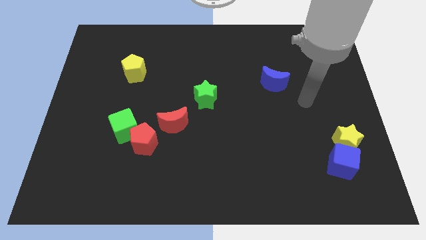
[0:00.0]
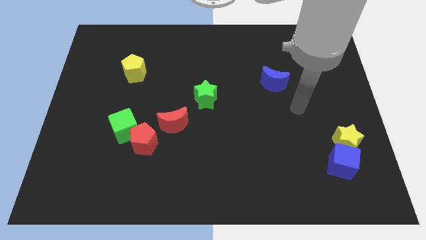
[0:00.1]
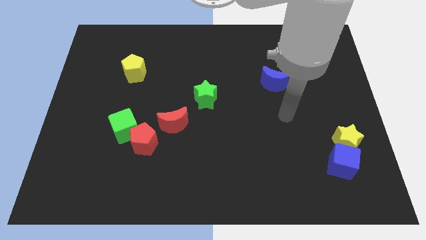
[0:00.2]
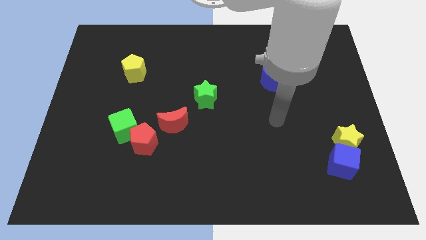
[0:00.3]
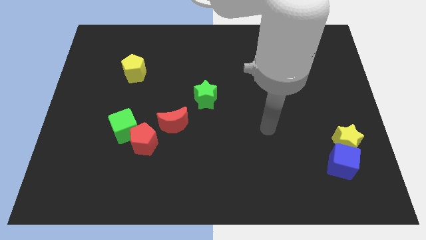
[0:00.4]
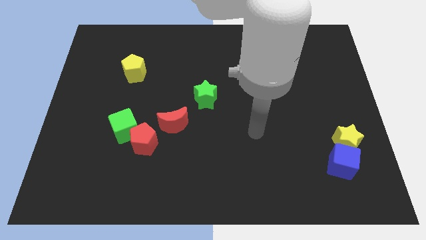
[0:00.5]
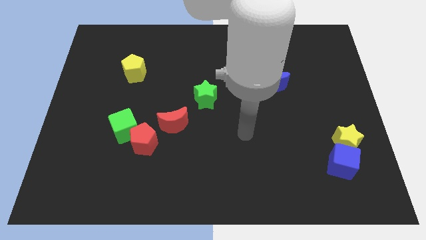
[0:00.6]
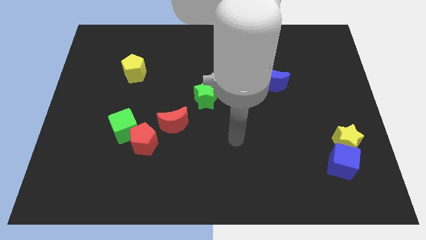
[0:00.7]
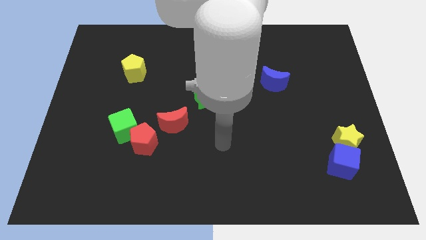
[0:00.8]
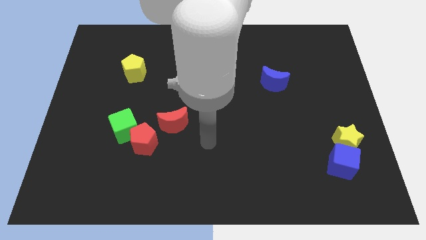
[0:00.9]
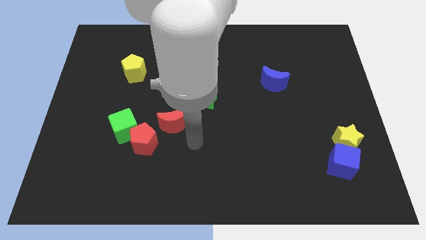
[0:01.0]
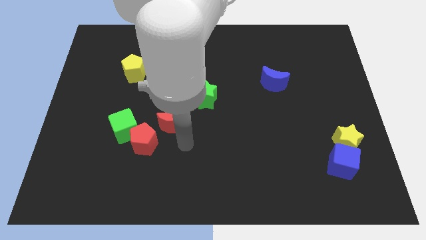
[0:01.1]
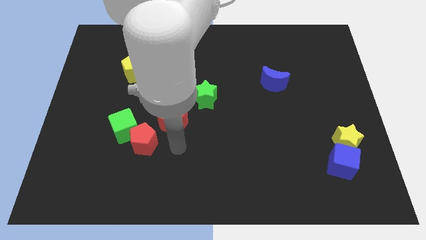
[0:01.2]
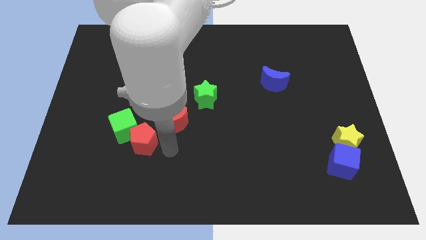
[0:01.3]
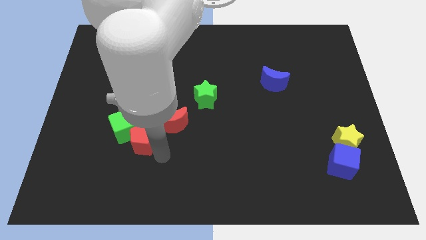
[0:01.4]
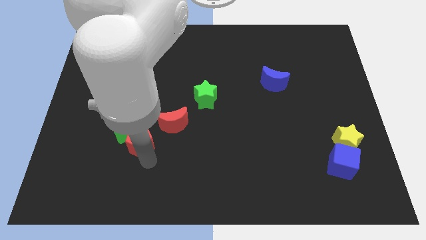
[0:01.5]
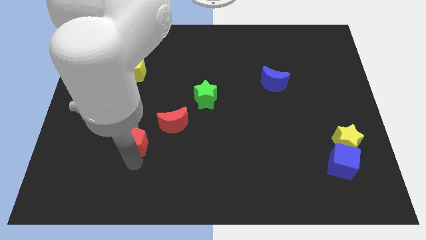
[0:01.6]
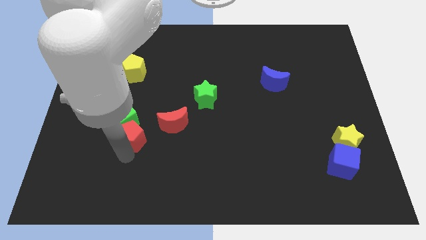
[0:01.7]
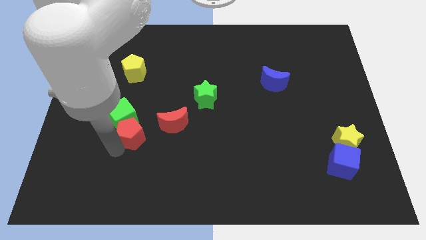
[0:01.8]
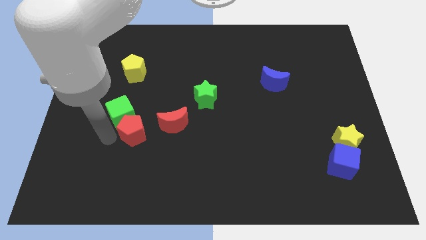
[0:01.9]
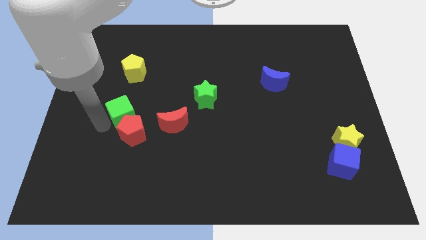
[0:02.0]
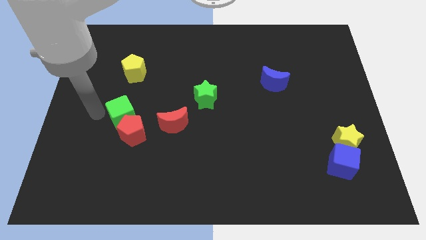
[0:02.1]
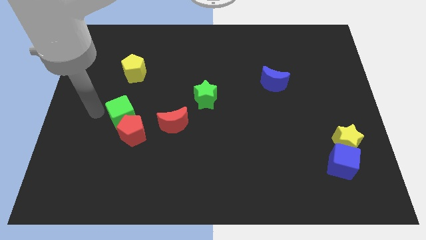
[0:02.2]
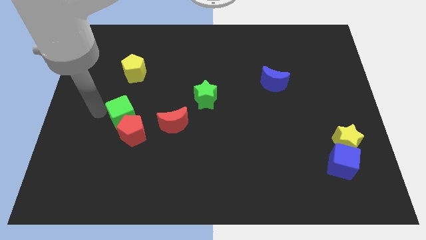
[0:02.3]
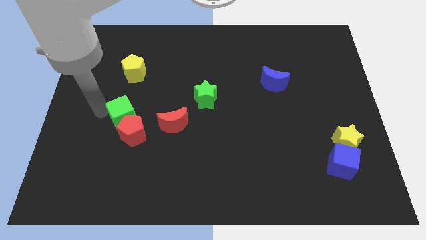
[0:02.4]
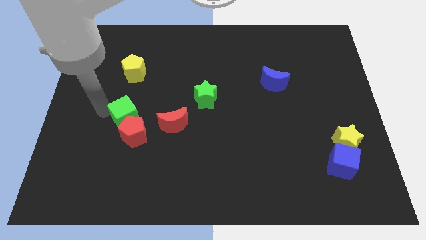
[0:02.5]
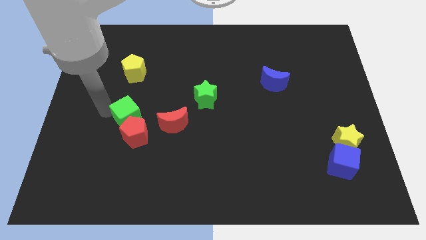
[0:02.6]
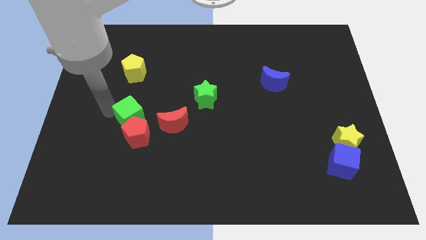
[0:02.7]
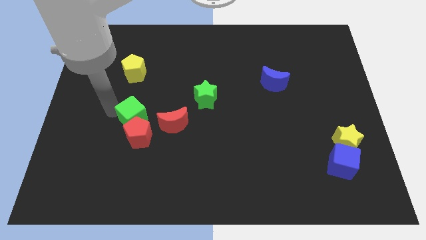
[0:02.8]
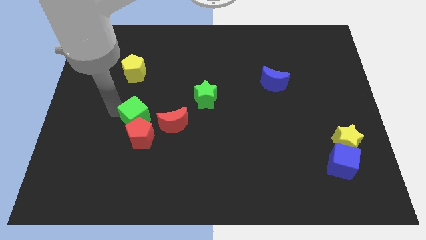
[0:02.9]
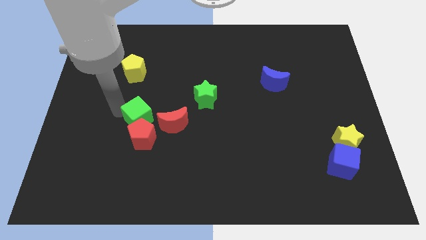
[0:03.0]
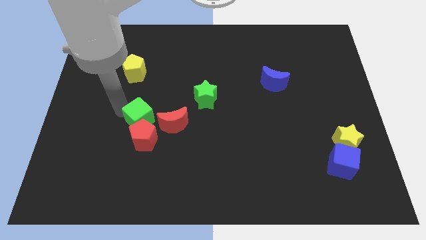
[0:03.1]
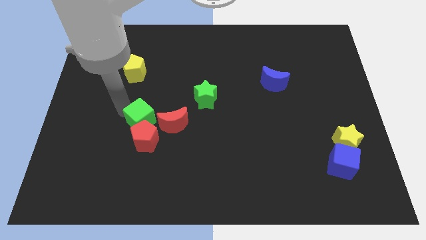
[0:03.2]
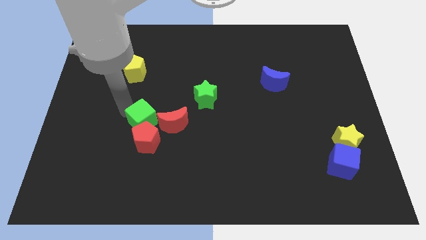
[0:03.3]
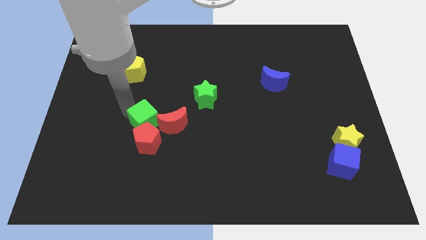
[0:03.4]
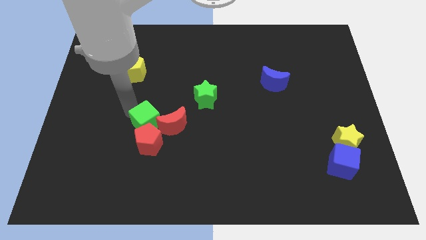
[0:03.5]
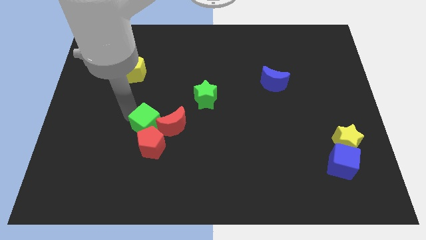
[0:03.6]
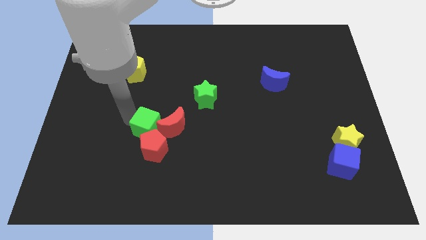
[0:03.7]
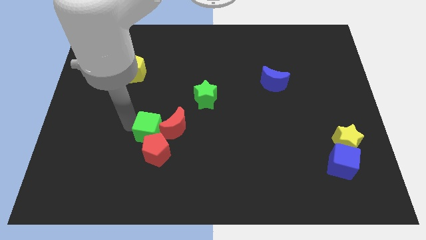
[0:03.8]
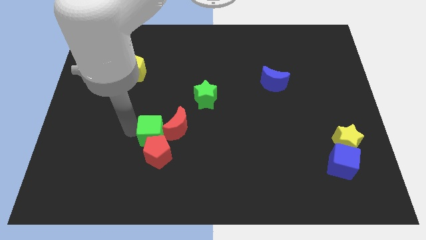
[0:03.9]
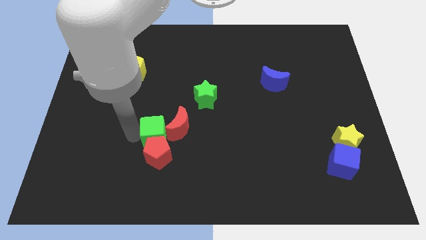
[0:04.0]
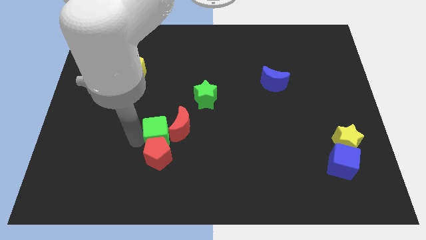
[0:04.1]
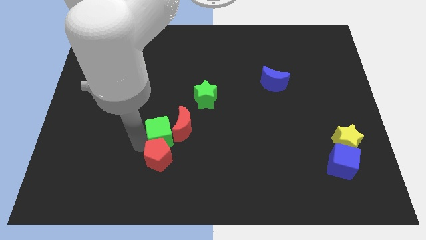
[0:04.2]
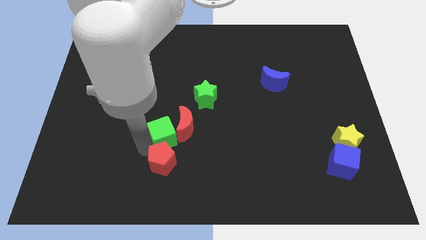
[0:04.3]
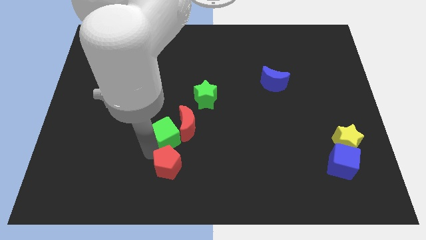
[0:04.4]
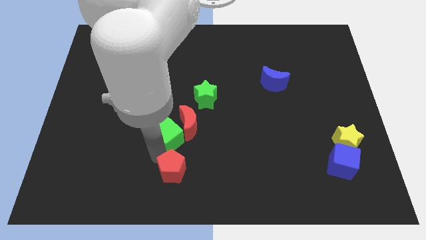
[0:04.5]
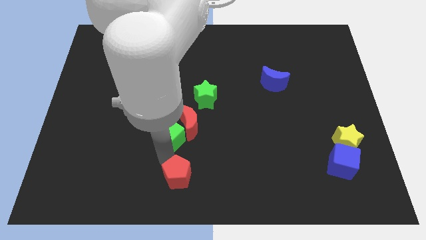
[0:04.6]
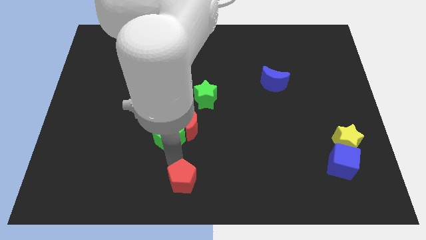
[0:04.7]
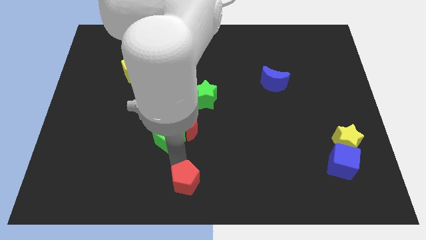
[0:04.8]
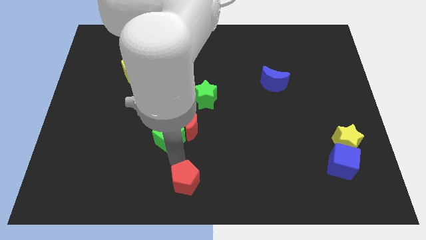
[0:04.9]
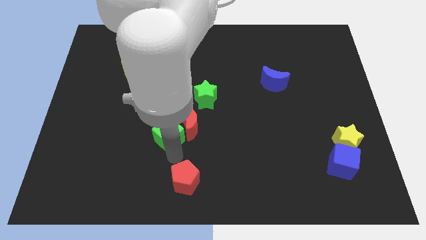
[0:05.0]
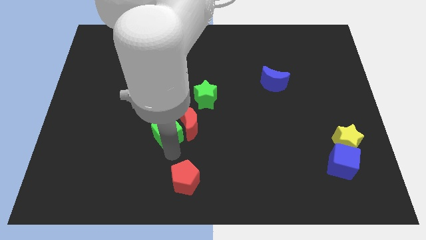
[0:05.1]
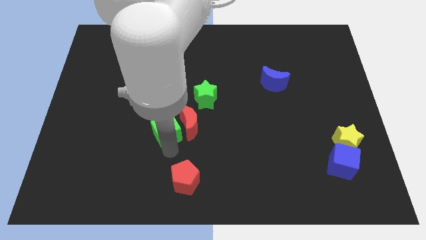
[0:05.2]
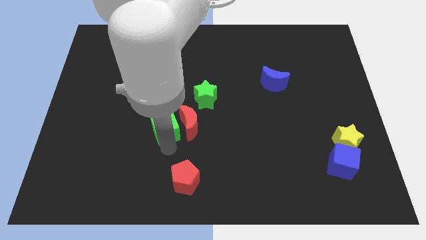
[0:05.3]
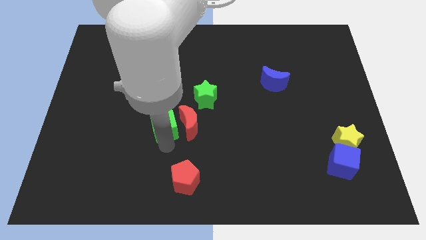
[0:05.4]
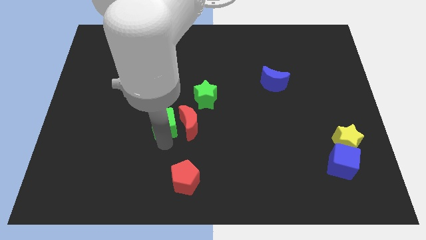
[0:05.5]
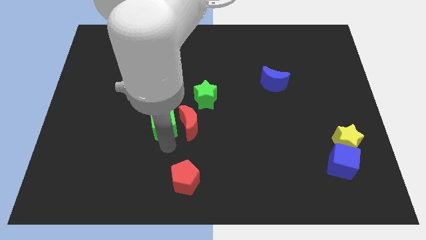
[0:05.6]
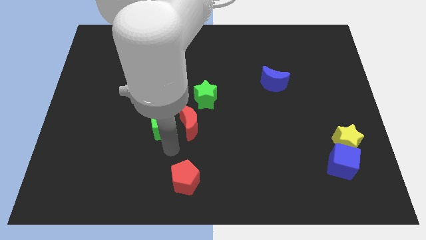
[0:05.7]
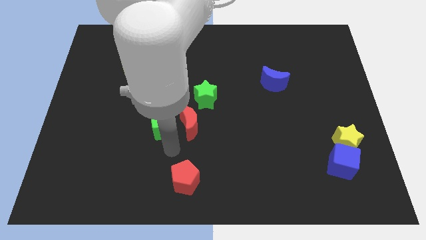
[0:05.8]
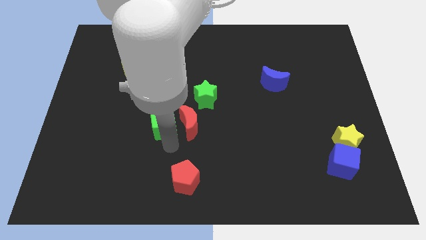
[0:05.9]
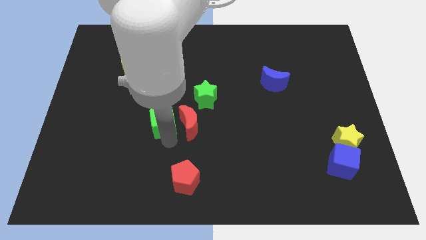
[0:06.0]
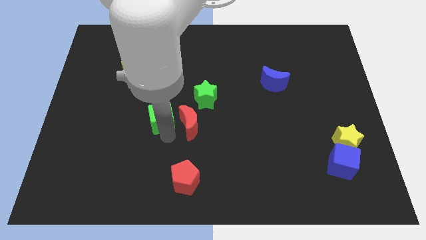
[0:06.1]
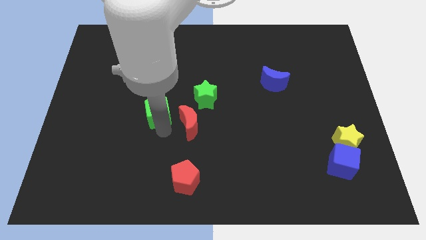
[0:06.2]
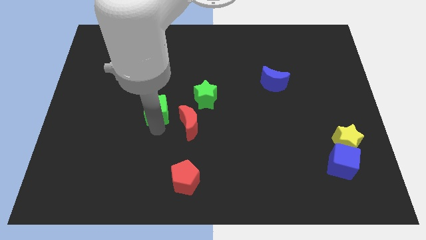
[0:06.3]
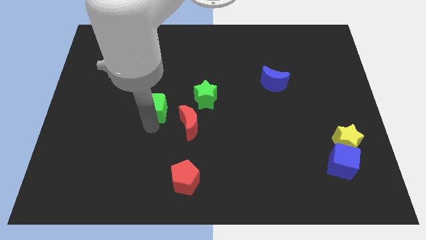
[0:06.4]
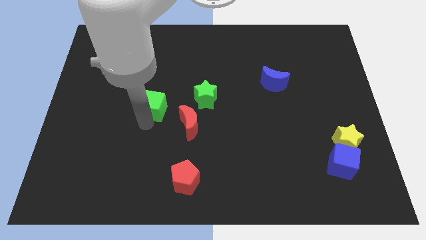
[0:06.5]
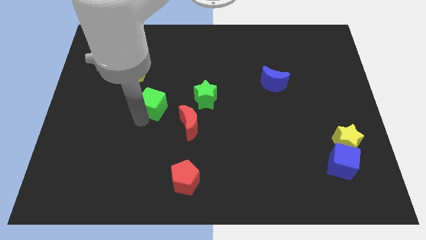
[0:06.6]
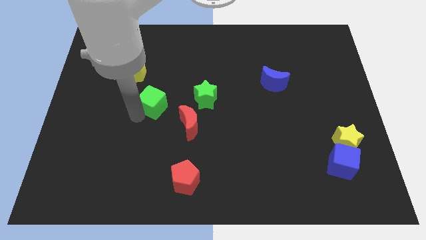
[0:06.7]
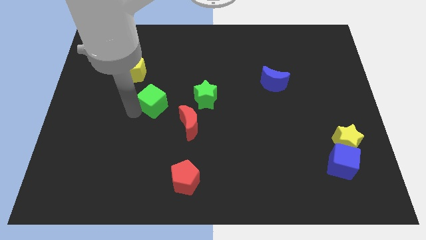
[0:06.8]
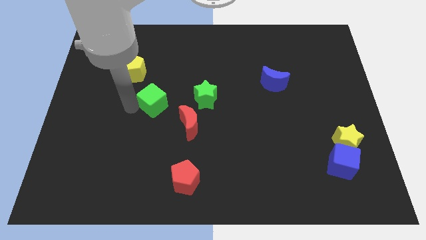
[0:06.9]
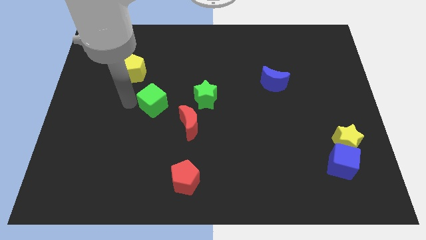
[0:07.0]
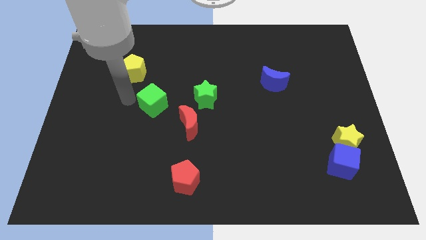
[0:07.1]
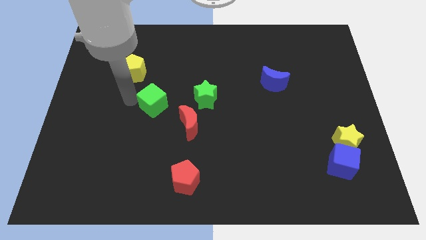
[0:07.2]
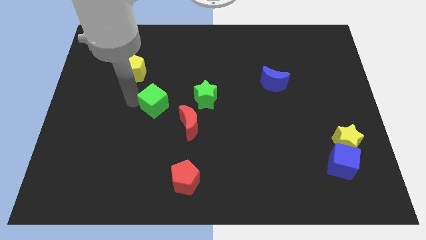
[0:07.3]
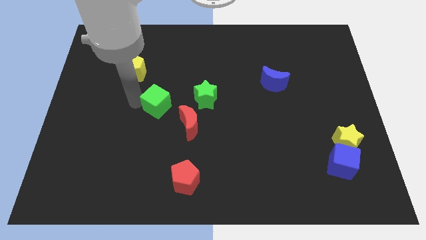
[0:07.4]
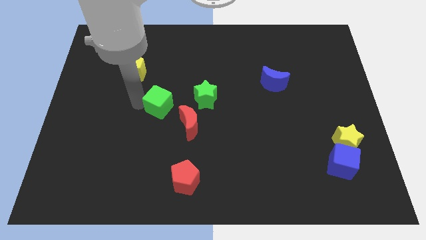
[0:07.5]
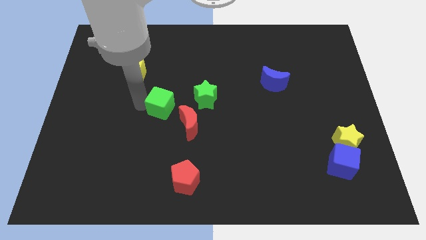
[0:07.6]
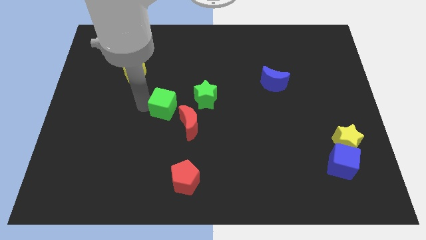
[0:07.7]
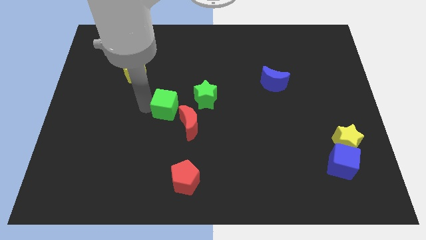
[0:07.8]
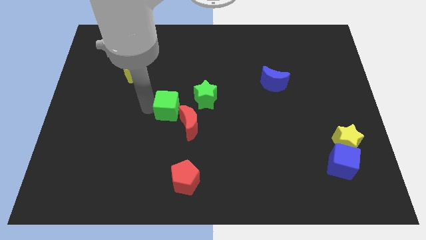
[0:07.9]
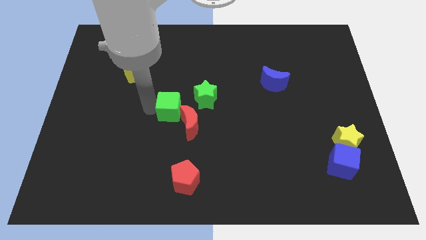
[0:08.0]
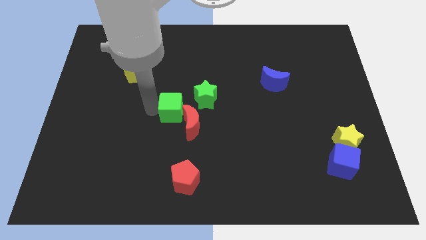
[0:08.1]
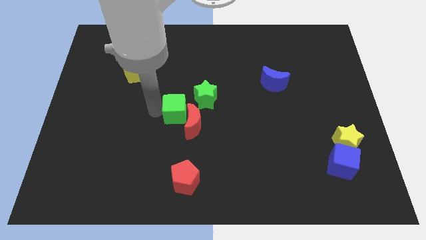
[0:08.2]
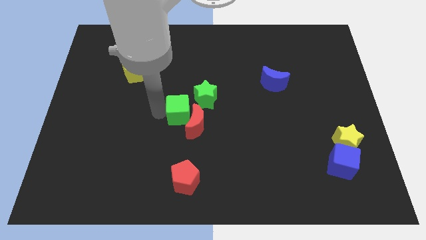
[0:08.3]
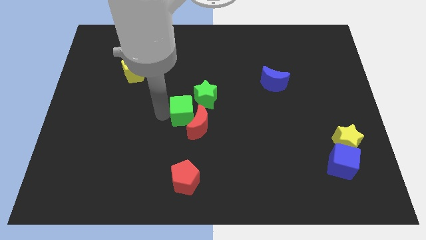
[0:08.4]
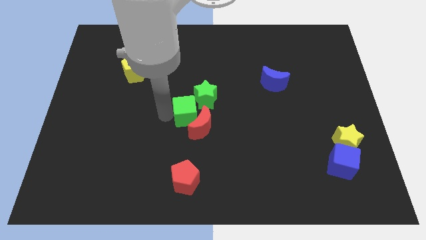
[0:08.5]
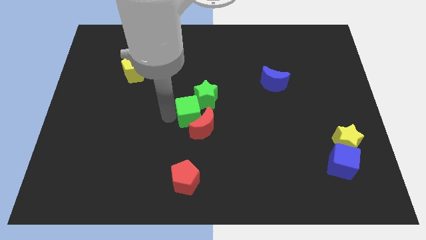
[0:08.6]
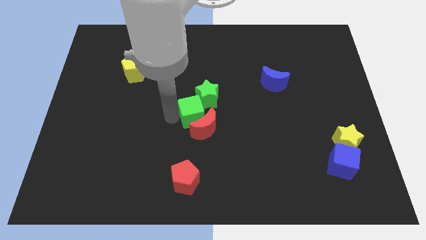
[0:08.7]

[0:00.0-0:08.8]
slide the green cube towards the green star
